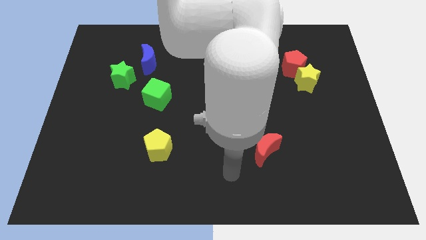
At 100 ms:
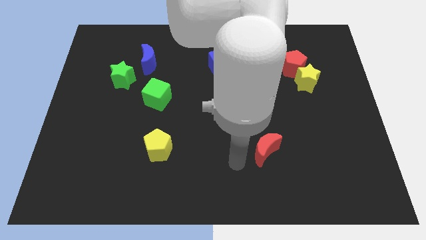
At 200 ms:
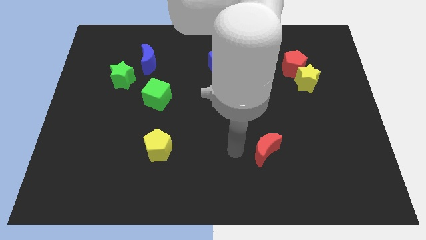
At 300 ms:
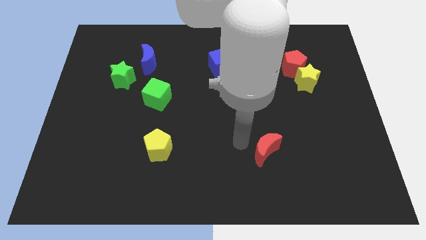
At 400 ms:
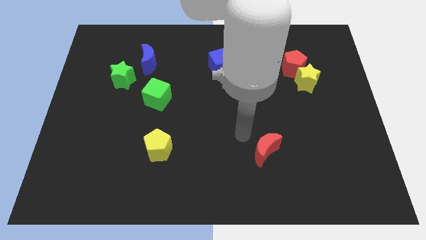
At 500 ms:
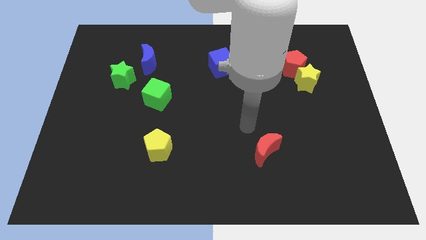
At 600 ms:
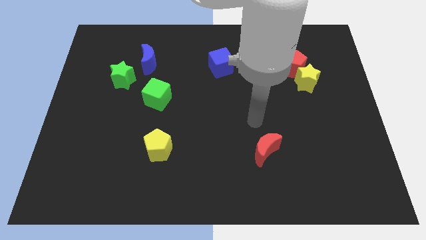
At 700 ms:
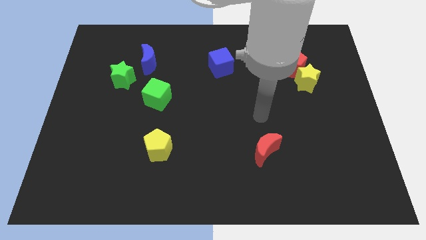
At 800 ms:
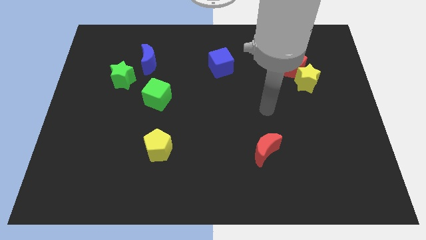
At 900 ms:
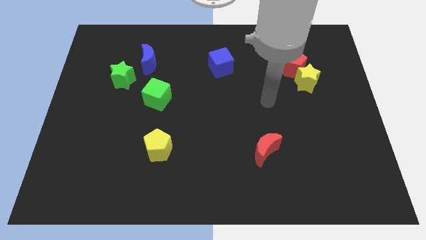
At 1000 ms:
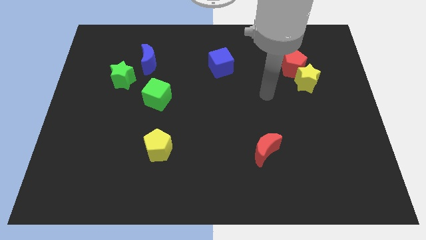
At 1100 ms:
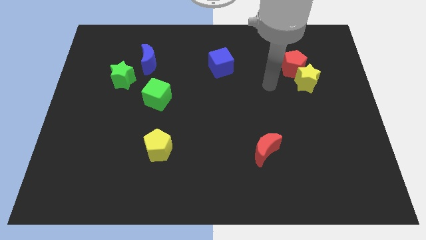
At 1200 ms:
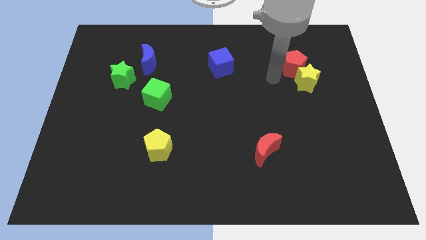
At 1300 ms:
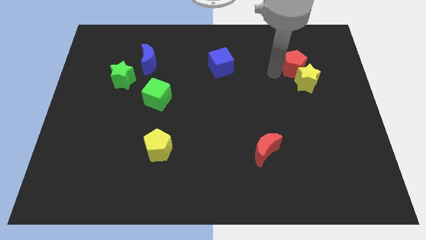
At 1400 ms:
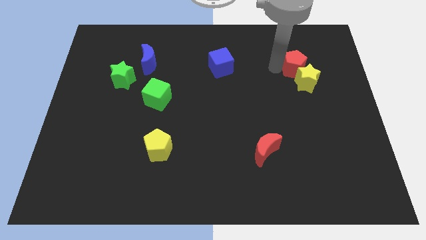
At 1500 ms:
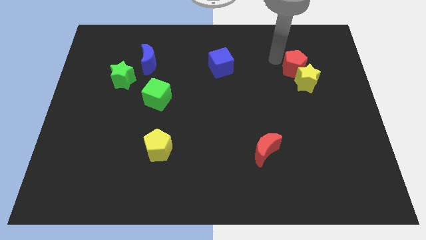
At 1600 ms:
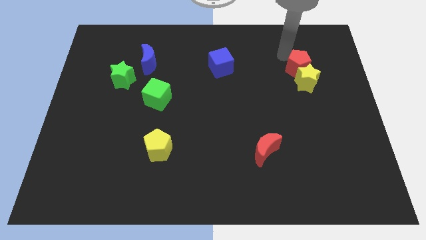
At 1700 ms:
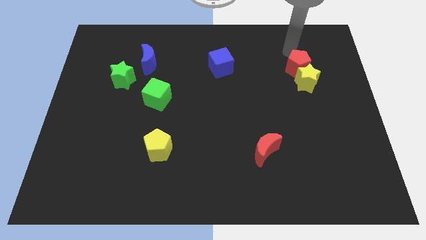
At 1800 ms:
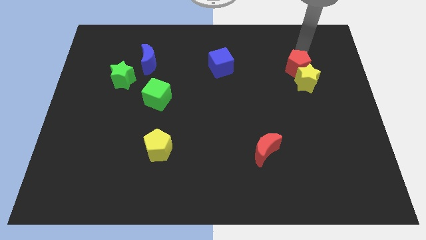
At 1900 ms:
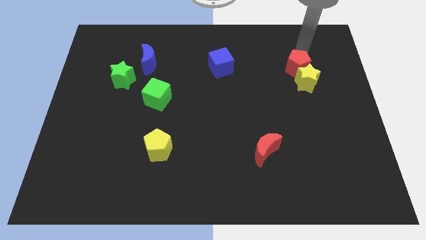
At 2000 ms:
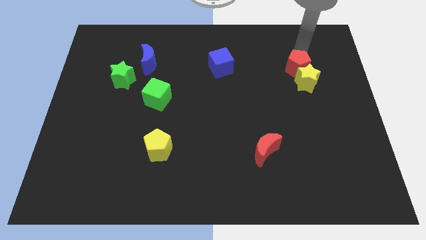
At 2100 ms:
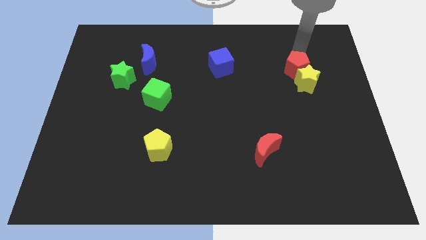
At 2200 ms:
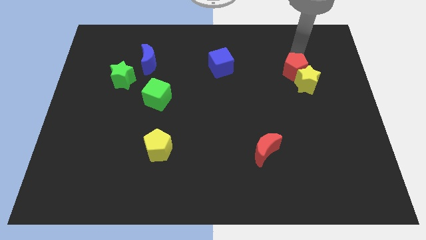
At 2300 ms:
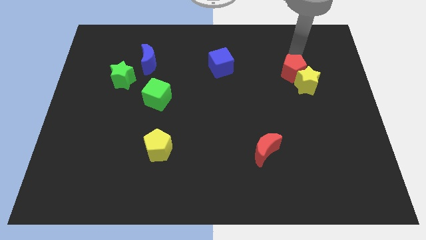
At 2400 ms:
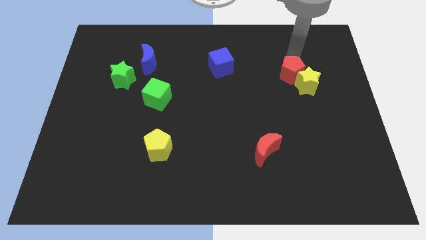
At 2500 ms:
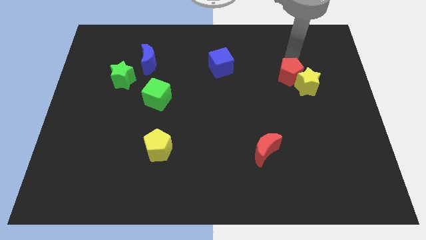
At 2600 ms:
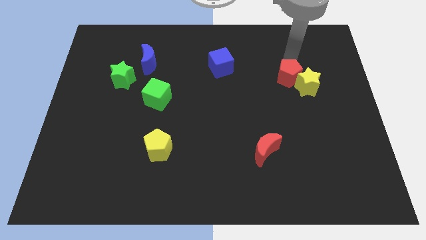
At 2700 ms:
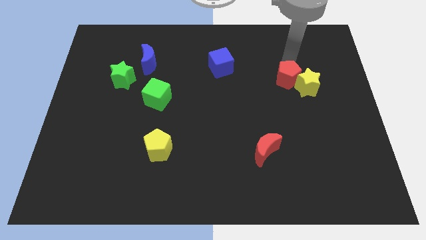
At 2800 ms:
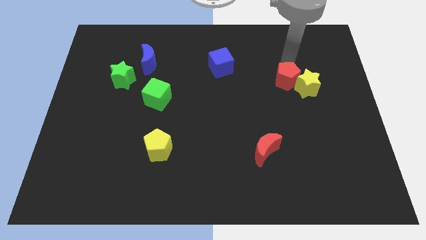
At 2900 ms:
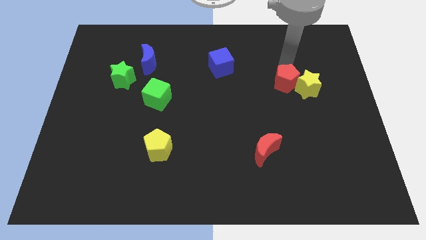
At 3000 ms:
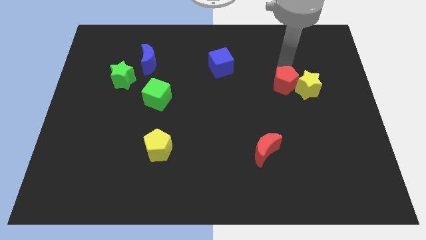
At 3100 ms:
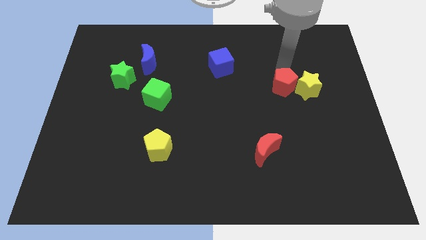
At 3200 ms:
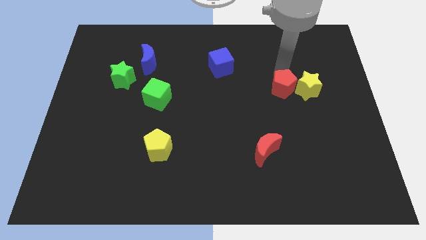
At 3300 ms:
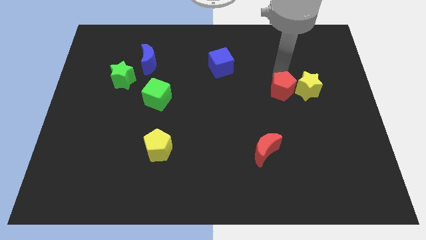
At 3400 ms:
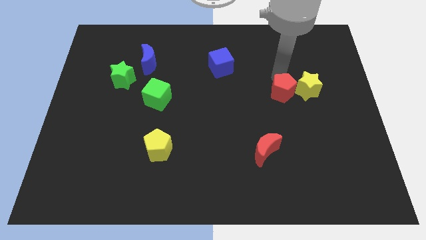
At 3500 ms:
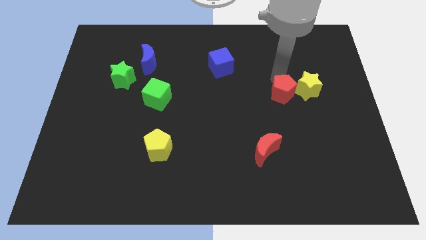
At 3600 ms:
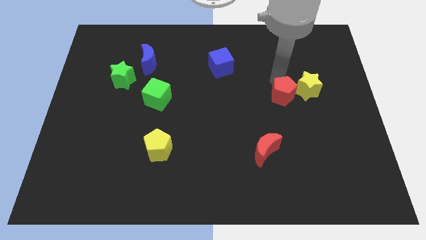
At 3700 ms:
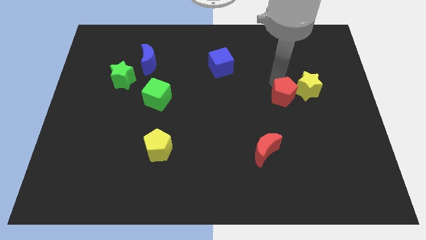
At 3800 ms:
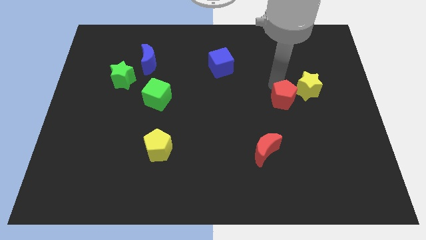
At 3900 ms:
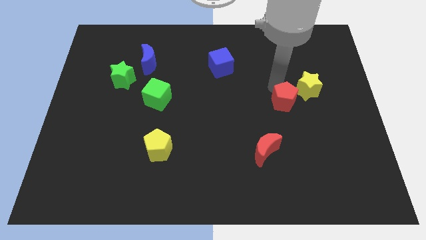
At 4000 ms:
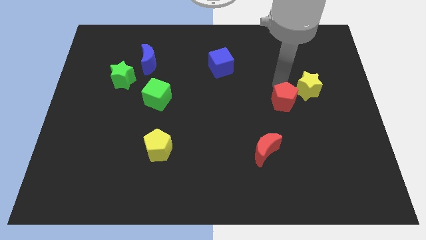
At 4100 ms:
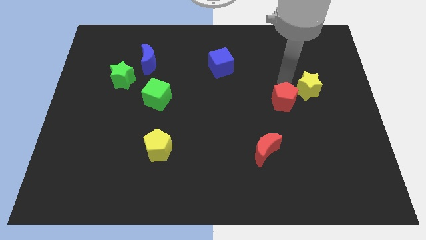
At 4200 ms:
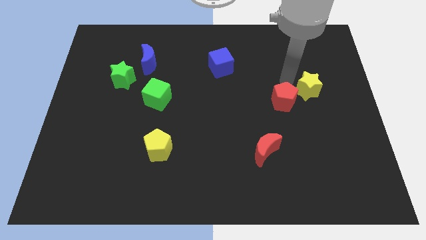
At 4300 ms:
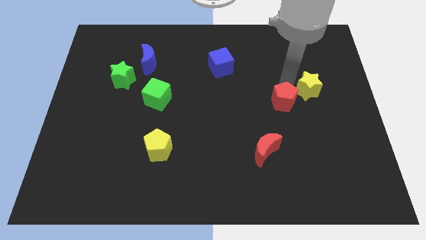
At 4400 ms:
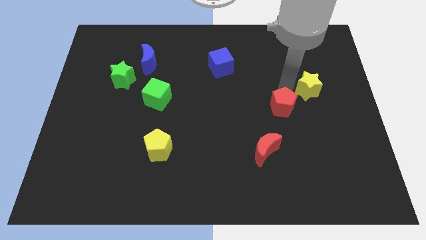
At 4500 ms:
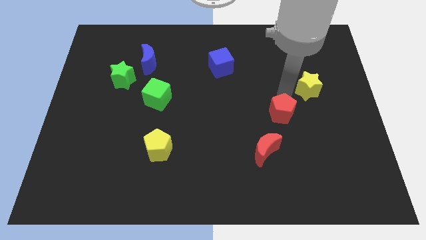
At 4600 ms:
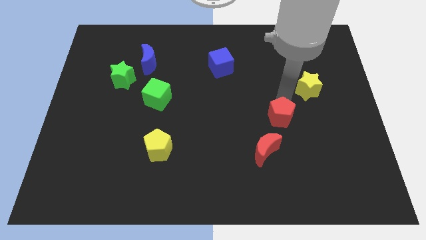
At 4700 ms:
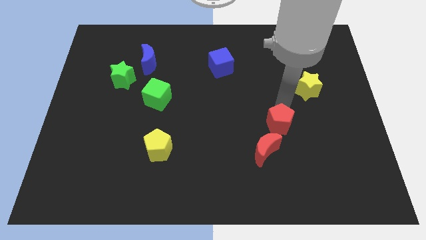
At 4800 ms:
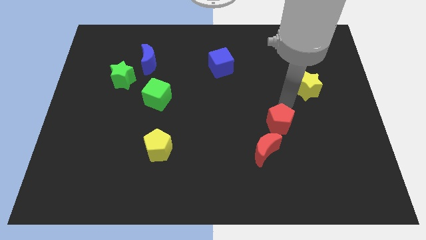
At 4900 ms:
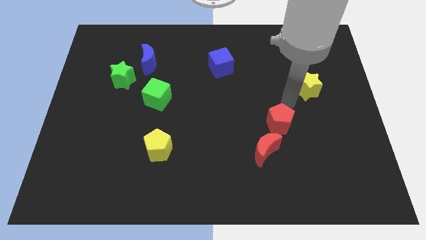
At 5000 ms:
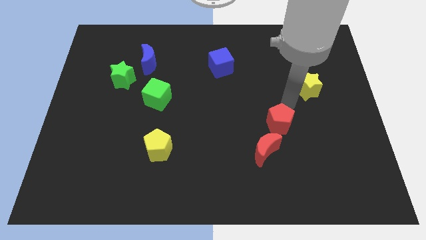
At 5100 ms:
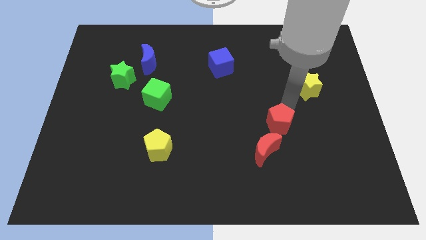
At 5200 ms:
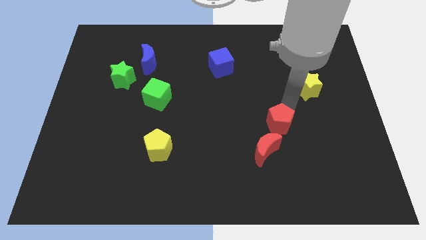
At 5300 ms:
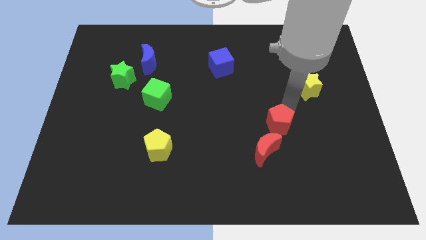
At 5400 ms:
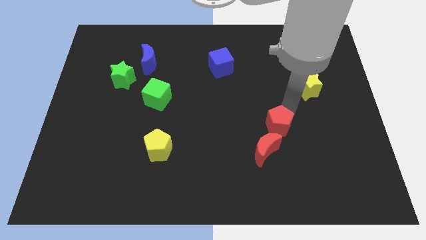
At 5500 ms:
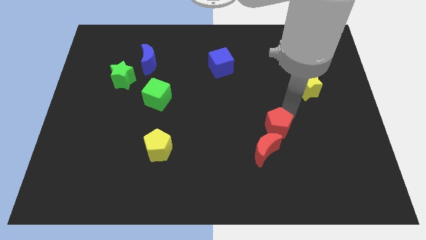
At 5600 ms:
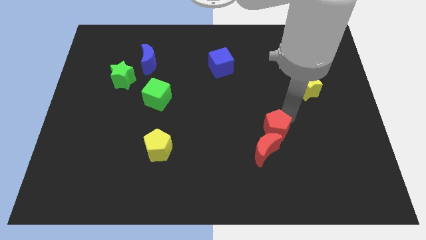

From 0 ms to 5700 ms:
move the red pentagon to the red moon
